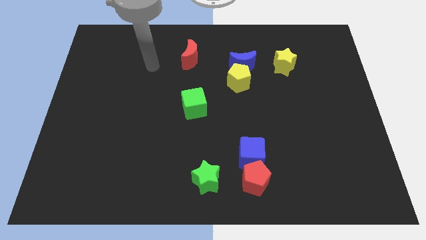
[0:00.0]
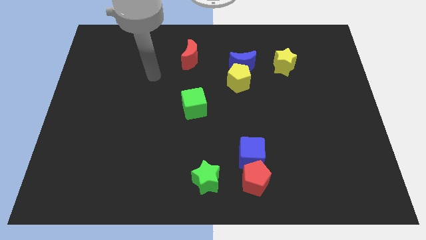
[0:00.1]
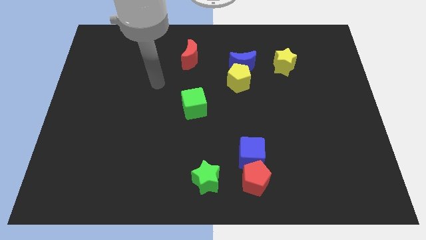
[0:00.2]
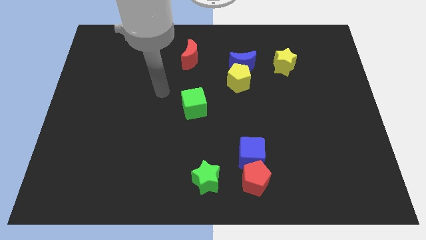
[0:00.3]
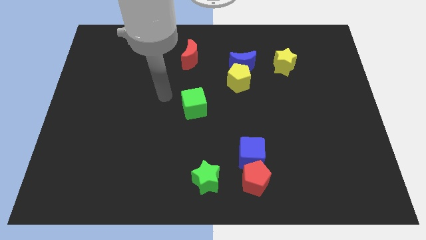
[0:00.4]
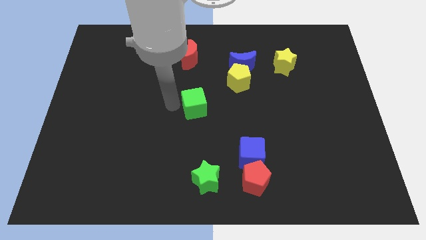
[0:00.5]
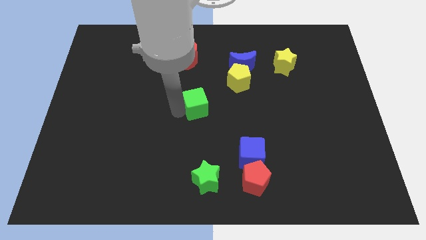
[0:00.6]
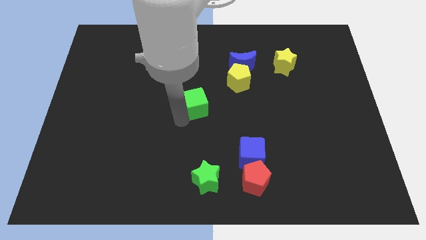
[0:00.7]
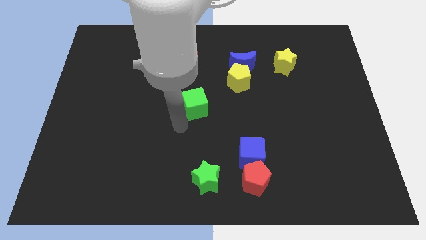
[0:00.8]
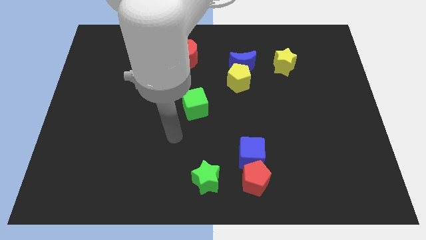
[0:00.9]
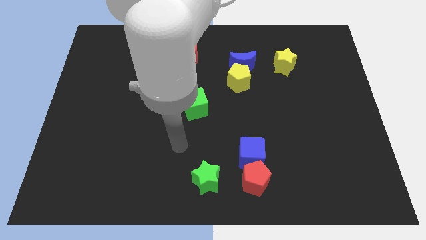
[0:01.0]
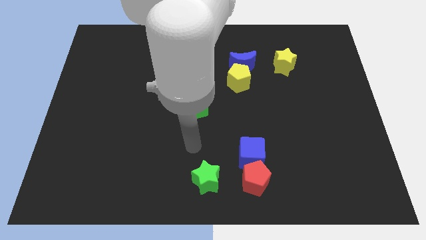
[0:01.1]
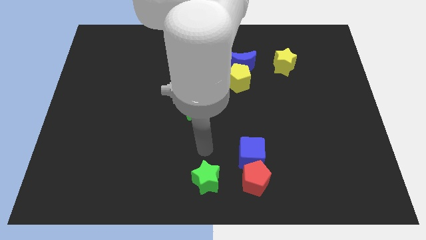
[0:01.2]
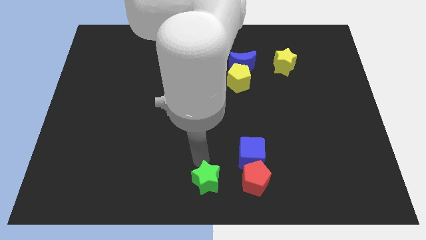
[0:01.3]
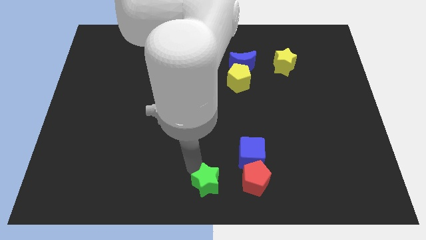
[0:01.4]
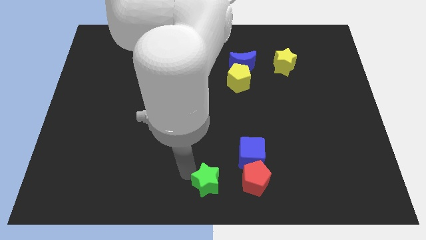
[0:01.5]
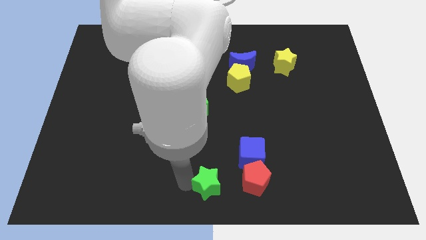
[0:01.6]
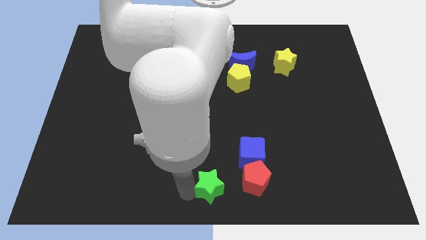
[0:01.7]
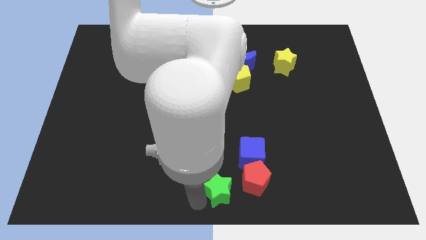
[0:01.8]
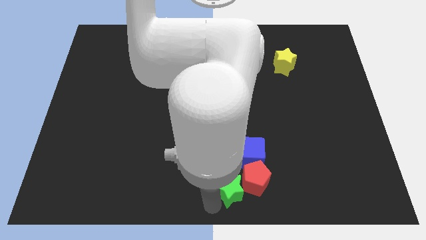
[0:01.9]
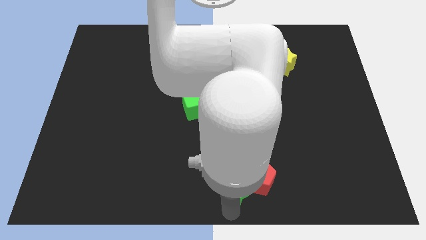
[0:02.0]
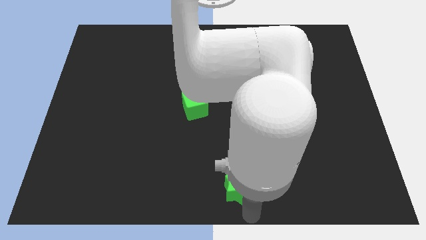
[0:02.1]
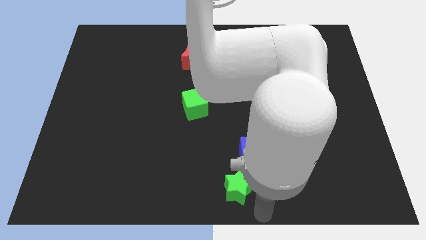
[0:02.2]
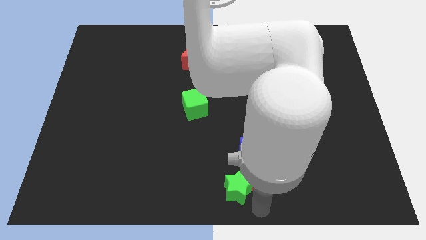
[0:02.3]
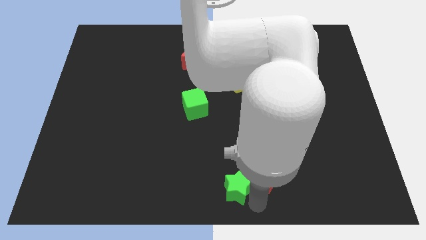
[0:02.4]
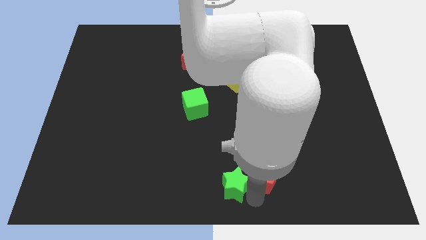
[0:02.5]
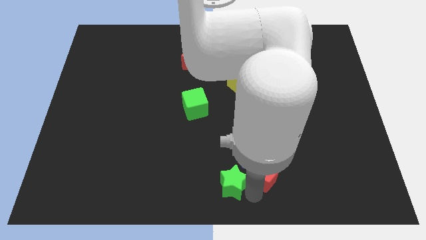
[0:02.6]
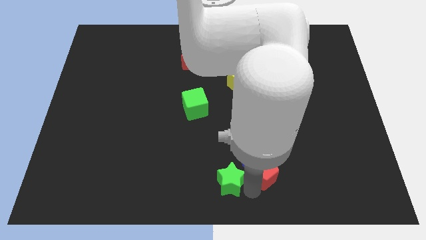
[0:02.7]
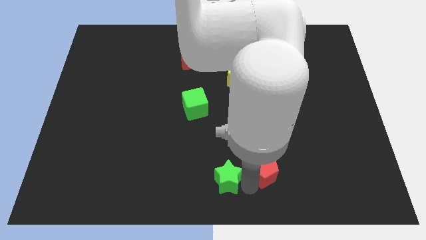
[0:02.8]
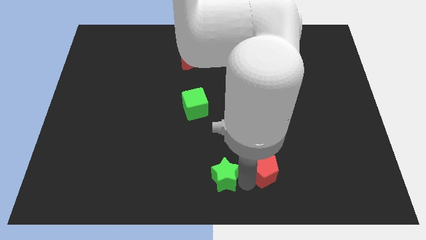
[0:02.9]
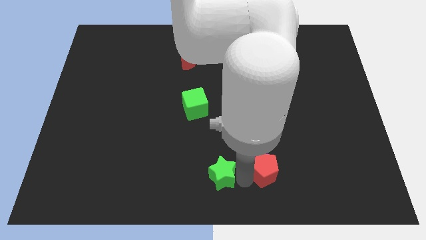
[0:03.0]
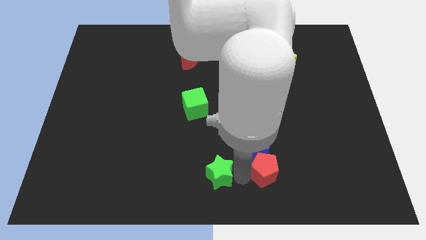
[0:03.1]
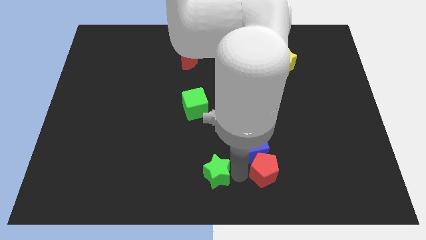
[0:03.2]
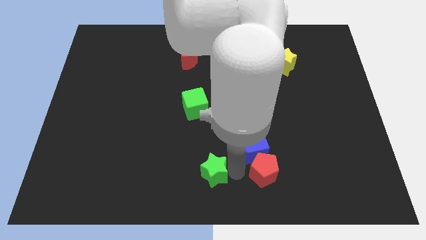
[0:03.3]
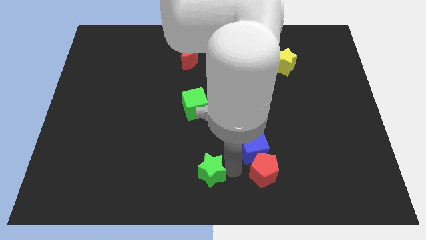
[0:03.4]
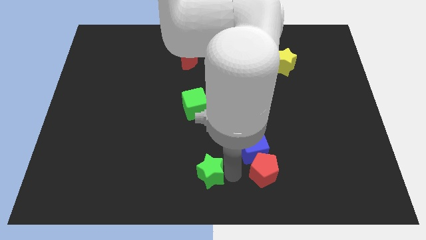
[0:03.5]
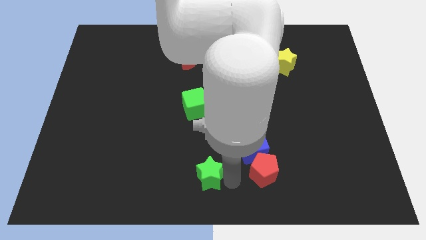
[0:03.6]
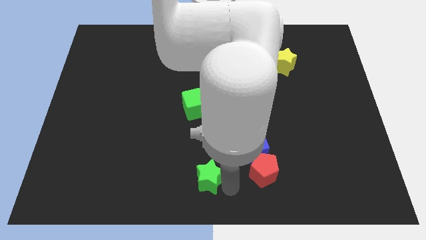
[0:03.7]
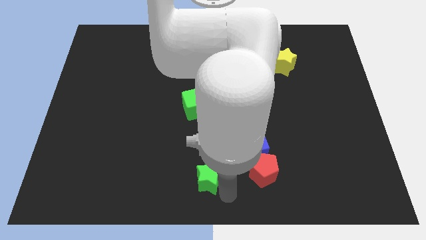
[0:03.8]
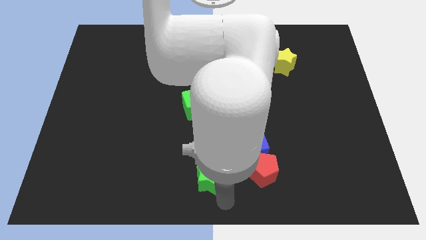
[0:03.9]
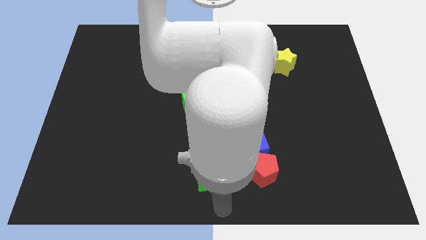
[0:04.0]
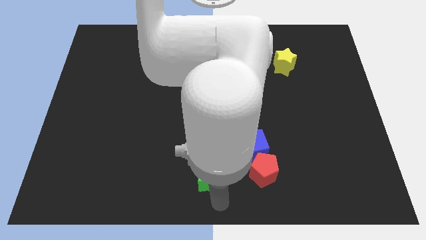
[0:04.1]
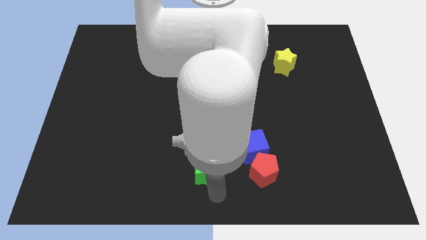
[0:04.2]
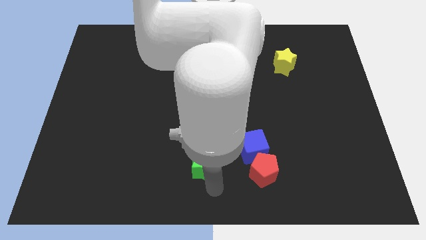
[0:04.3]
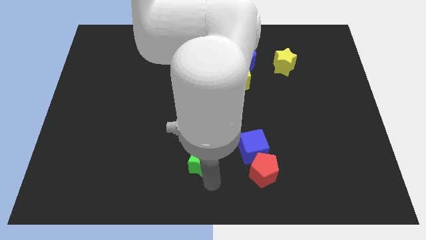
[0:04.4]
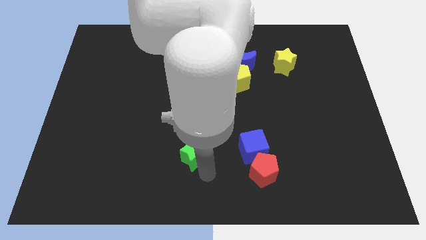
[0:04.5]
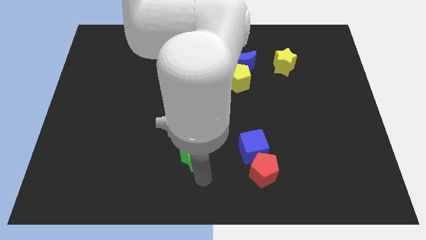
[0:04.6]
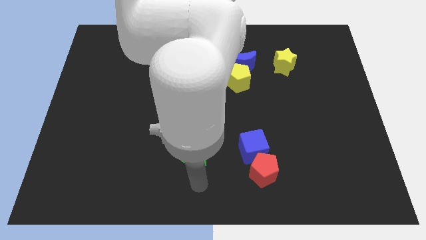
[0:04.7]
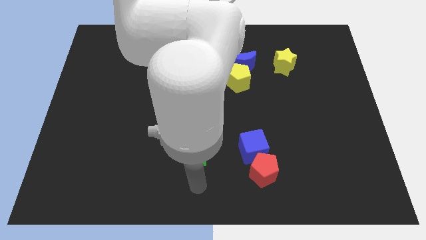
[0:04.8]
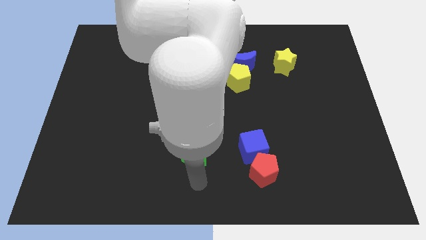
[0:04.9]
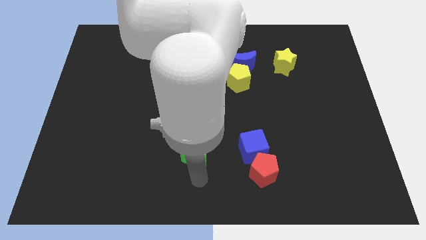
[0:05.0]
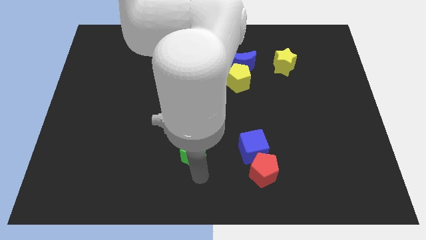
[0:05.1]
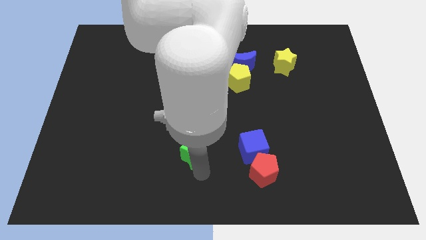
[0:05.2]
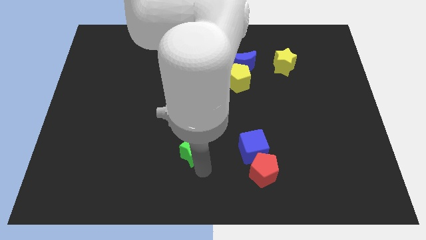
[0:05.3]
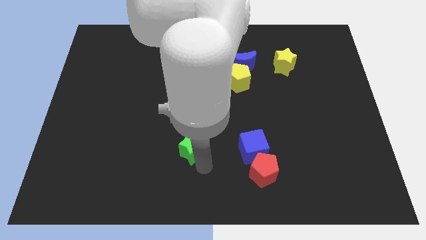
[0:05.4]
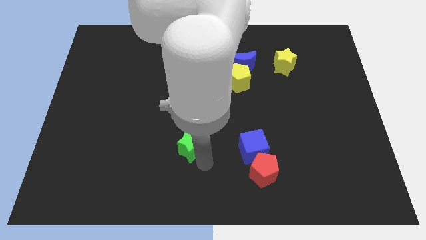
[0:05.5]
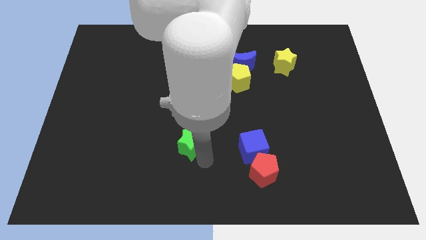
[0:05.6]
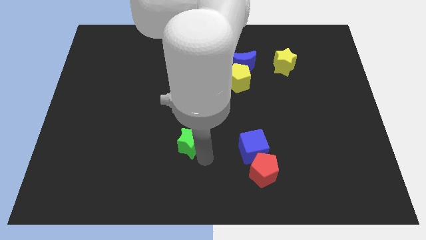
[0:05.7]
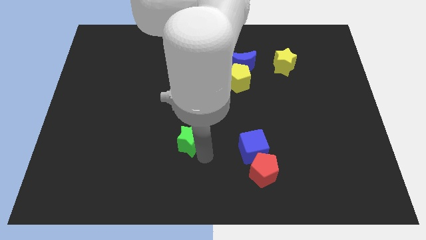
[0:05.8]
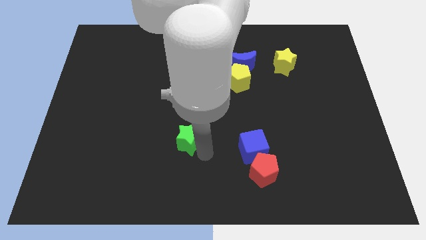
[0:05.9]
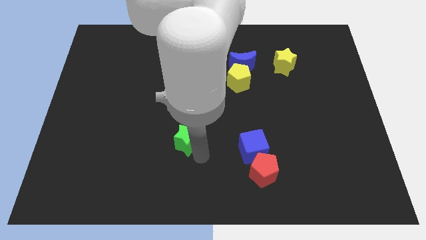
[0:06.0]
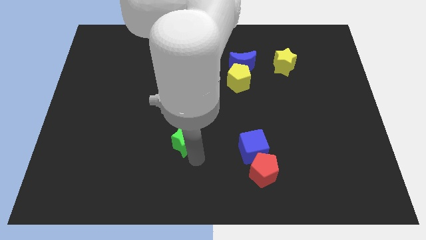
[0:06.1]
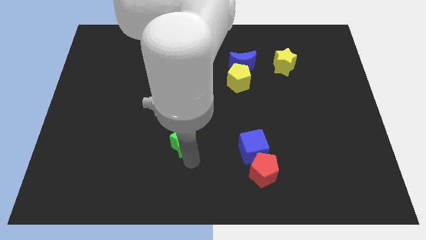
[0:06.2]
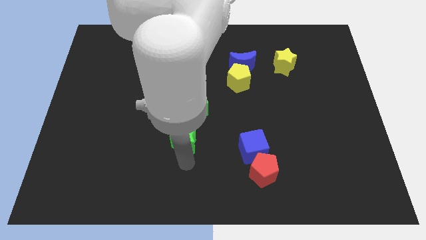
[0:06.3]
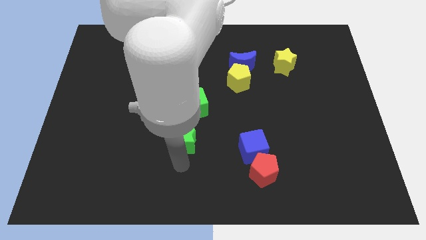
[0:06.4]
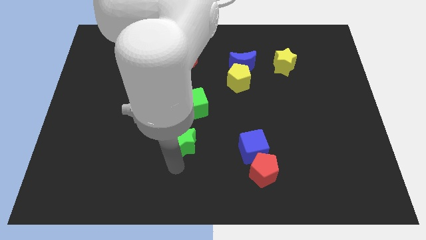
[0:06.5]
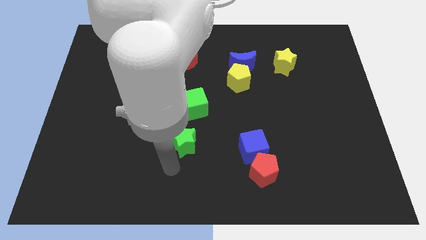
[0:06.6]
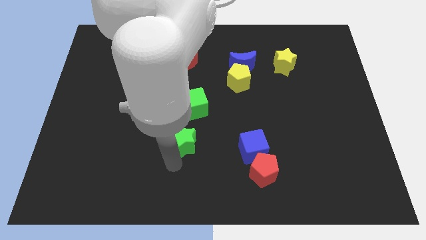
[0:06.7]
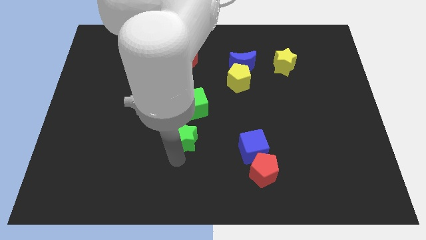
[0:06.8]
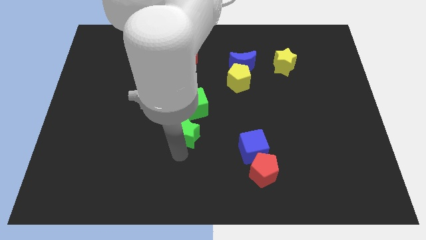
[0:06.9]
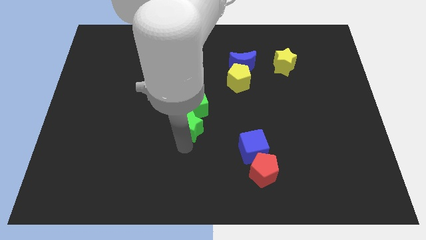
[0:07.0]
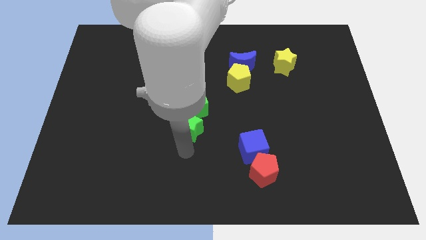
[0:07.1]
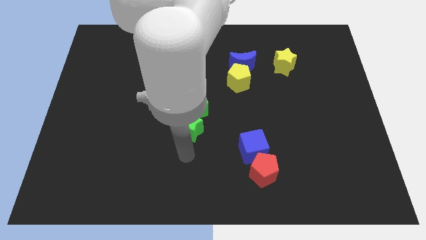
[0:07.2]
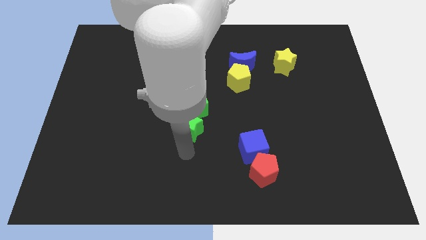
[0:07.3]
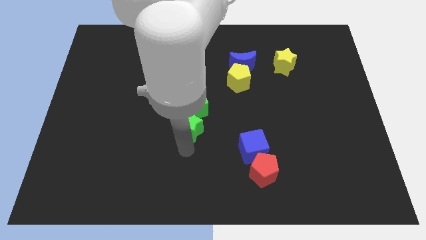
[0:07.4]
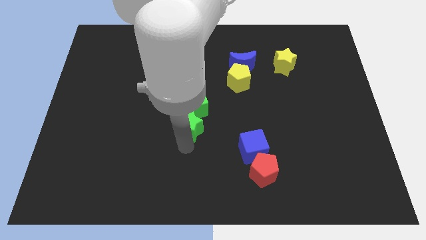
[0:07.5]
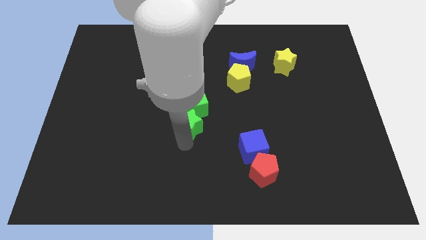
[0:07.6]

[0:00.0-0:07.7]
push the green star close to the green cube
